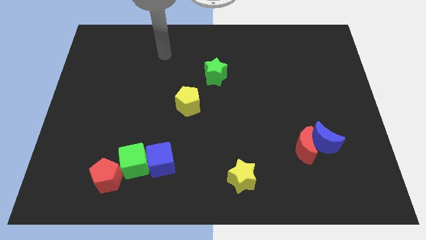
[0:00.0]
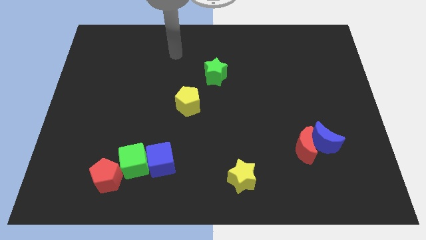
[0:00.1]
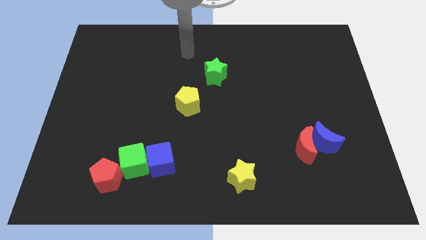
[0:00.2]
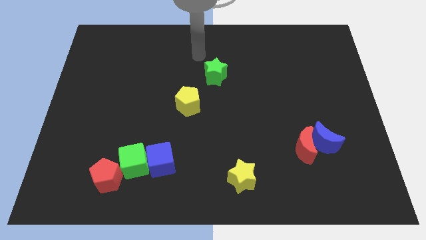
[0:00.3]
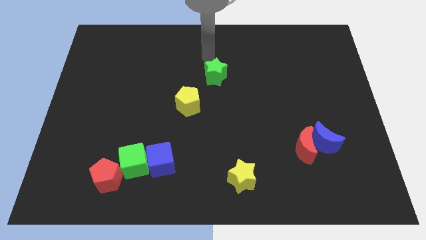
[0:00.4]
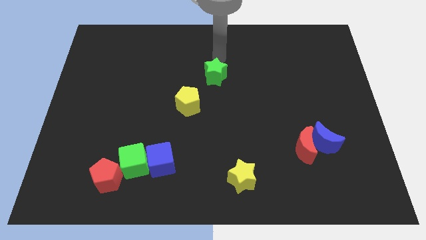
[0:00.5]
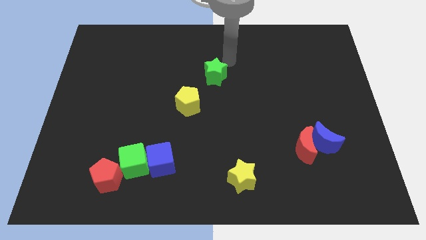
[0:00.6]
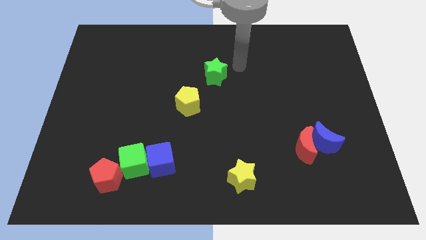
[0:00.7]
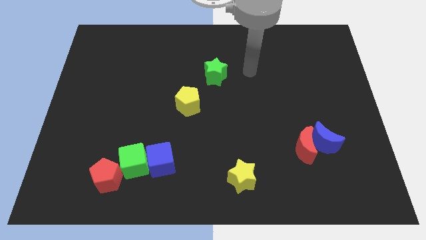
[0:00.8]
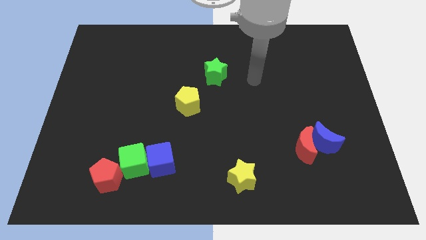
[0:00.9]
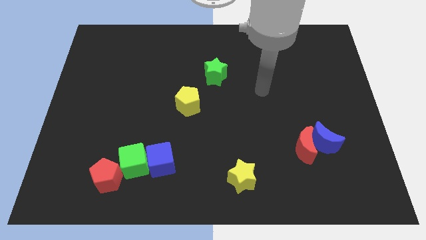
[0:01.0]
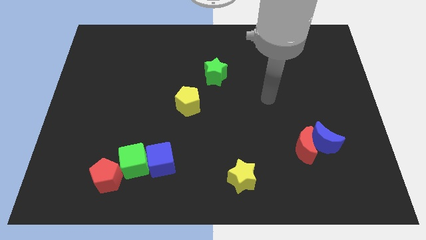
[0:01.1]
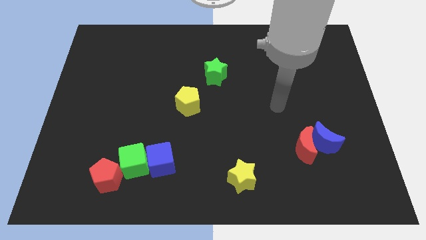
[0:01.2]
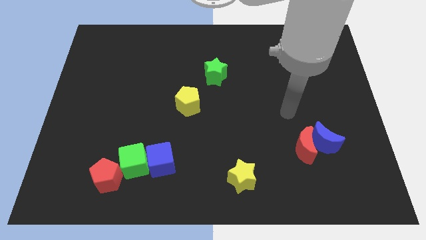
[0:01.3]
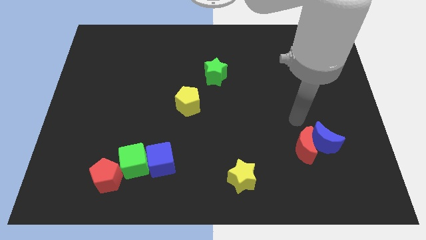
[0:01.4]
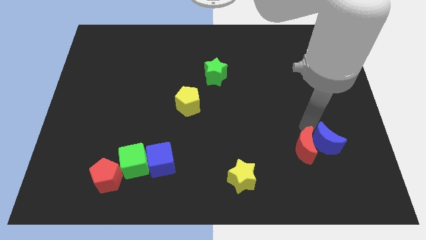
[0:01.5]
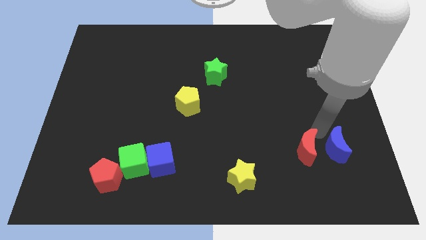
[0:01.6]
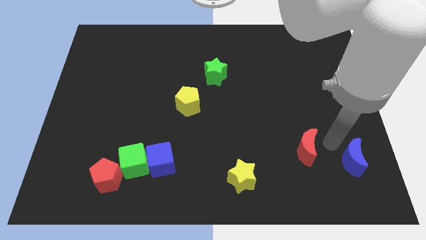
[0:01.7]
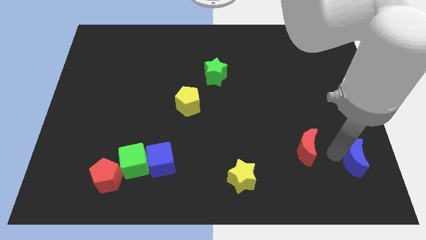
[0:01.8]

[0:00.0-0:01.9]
pull the red moon apart from the blue moon

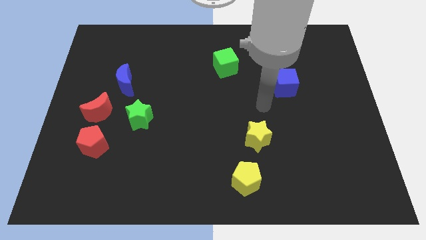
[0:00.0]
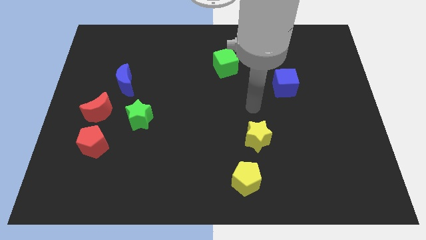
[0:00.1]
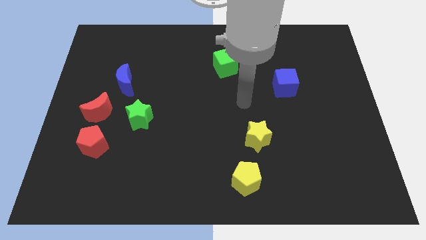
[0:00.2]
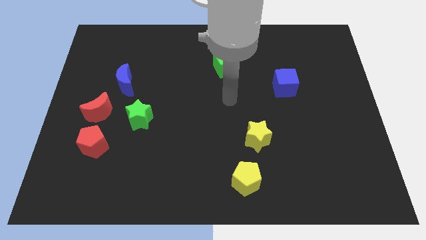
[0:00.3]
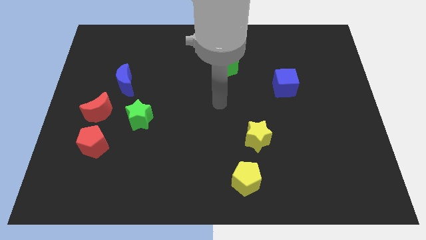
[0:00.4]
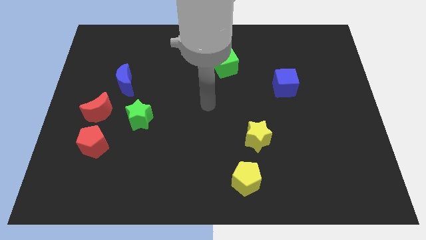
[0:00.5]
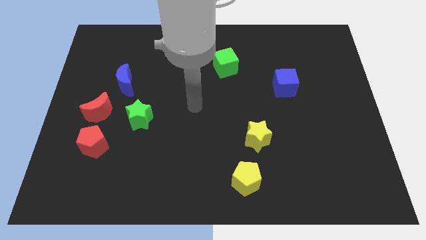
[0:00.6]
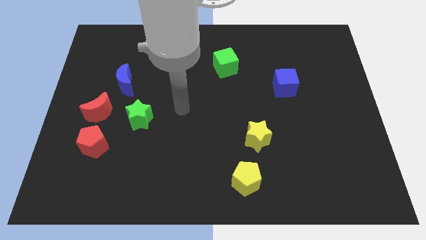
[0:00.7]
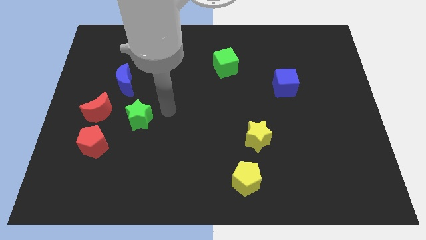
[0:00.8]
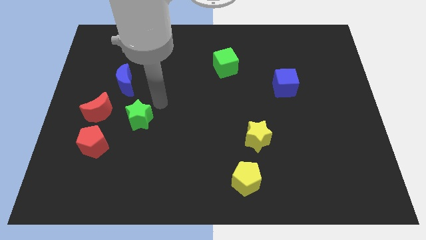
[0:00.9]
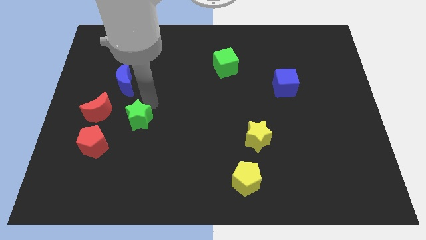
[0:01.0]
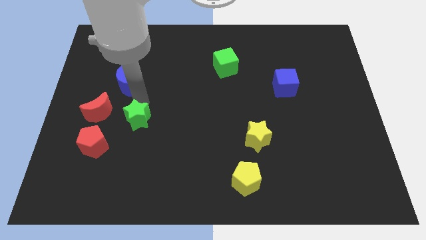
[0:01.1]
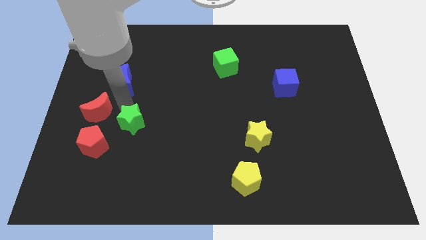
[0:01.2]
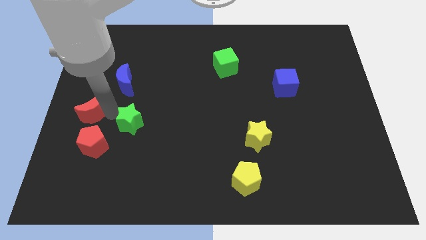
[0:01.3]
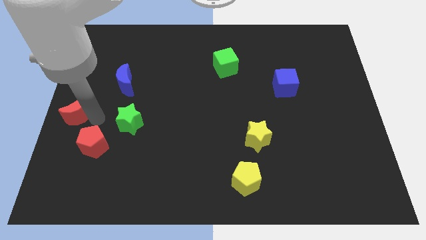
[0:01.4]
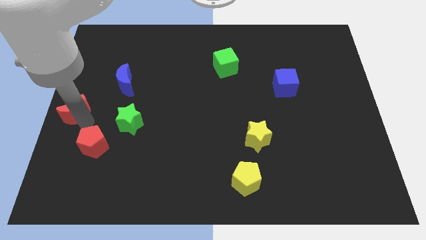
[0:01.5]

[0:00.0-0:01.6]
pull the red pentagon apart from the red moon

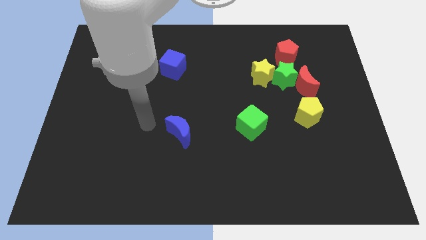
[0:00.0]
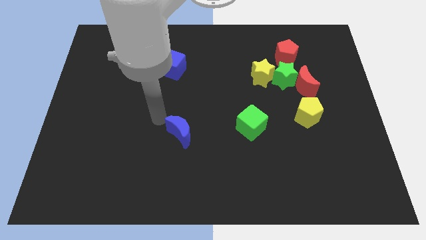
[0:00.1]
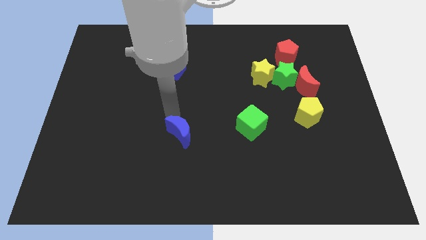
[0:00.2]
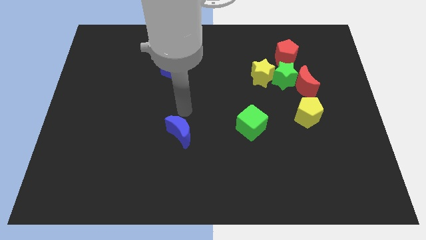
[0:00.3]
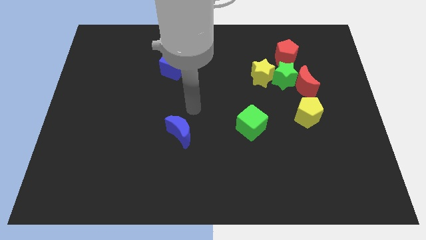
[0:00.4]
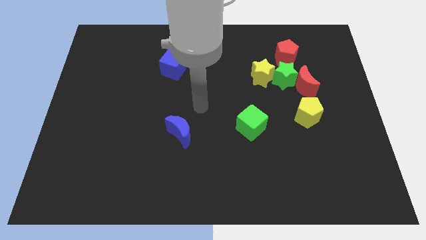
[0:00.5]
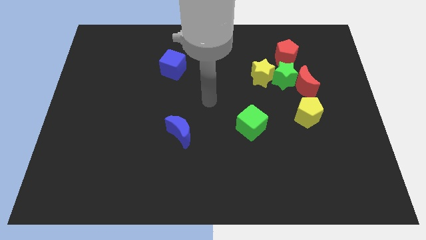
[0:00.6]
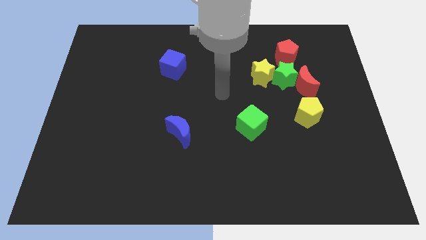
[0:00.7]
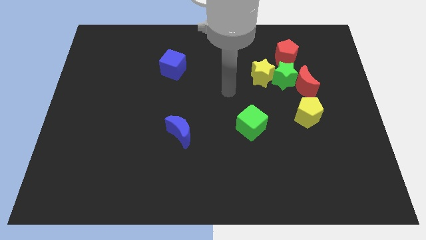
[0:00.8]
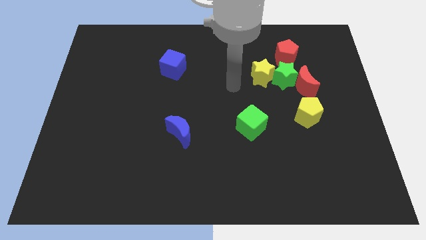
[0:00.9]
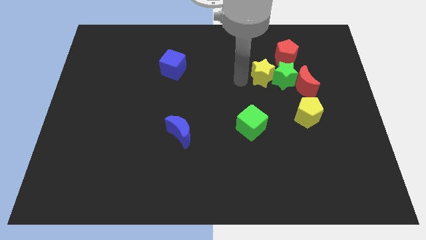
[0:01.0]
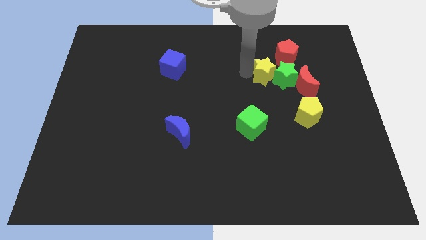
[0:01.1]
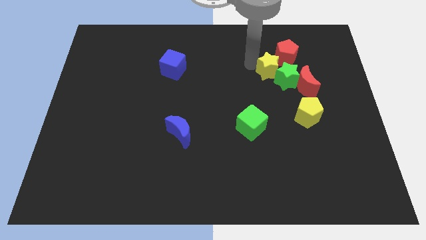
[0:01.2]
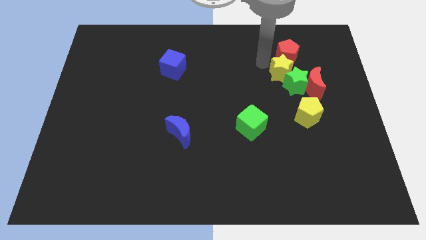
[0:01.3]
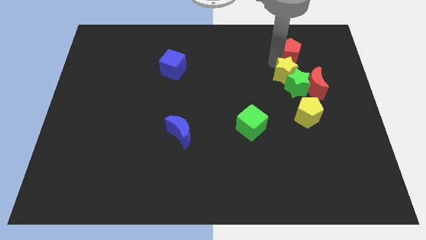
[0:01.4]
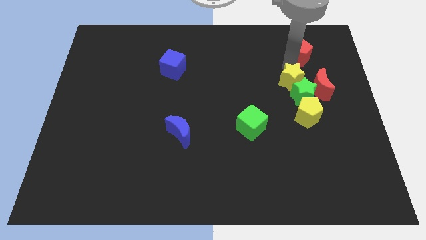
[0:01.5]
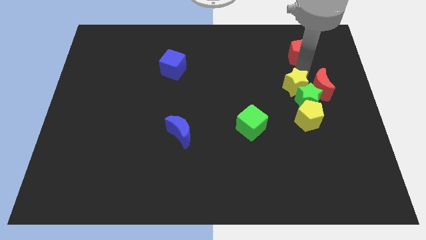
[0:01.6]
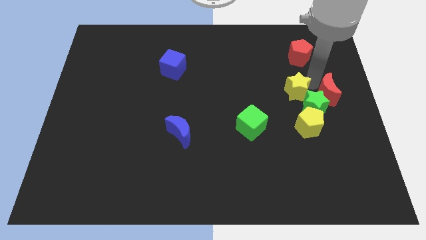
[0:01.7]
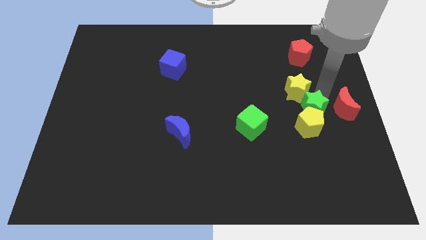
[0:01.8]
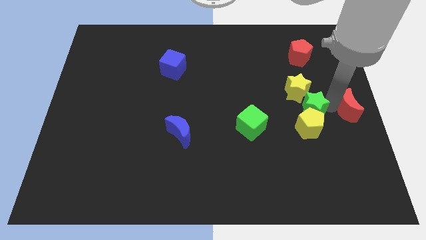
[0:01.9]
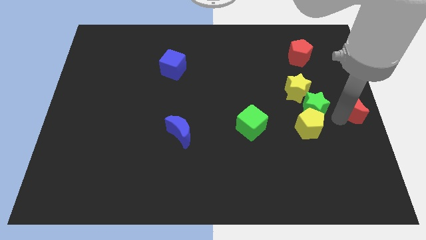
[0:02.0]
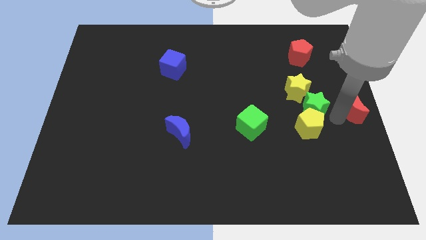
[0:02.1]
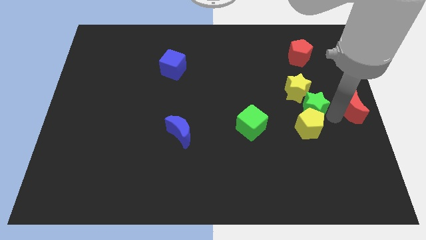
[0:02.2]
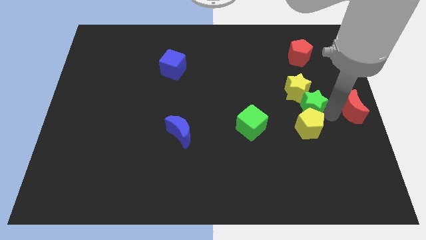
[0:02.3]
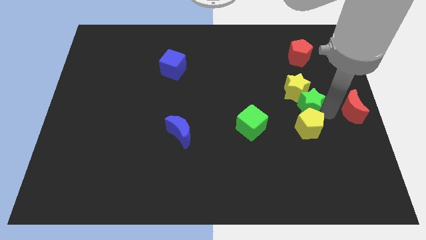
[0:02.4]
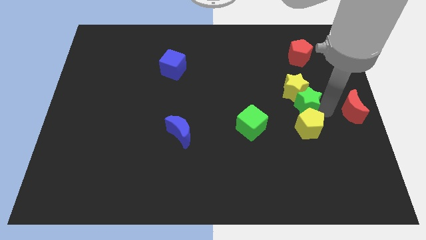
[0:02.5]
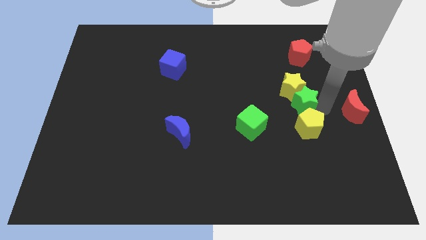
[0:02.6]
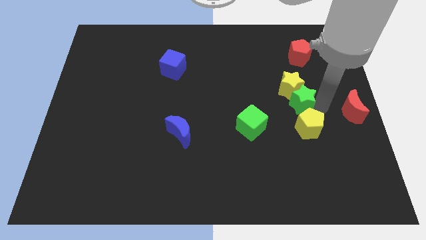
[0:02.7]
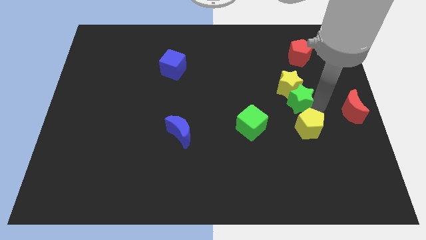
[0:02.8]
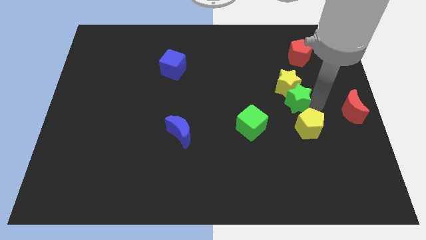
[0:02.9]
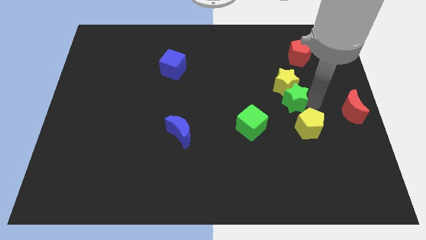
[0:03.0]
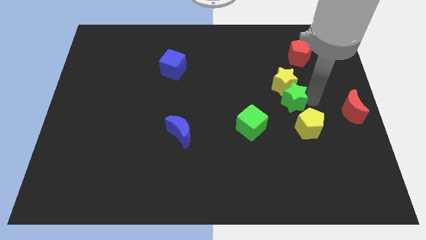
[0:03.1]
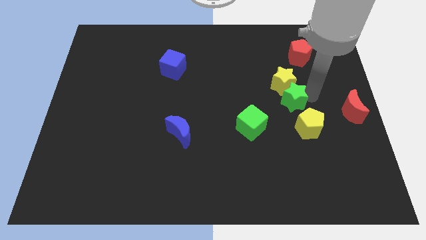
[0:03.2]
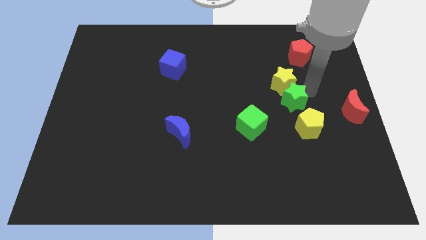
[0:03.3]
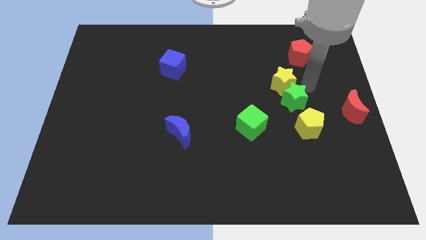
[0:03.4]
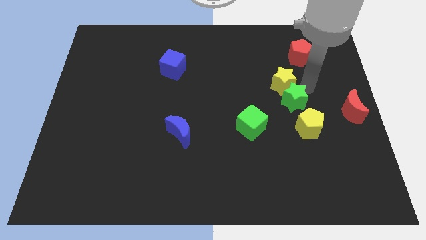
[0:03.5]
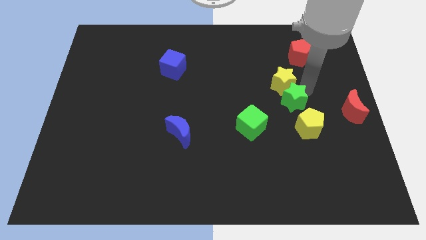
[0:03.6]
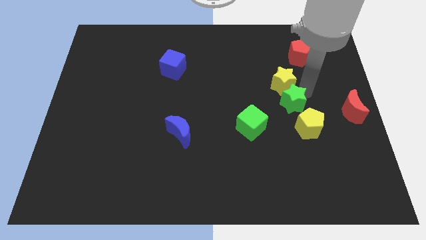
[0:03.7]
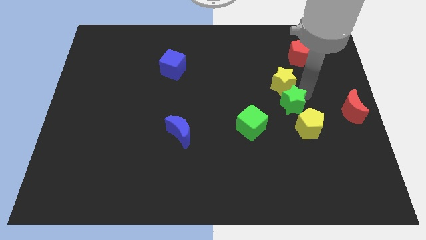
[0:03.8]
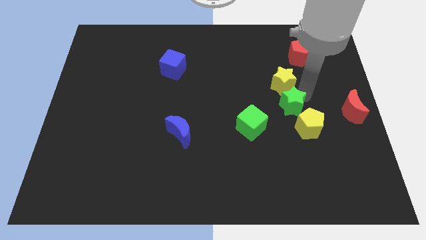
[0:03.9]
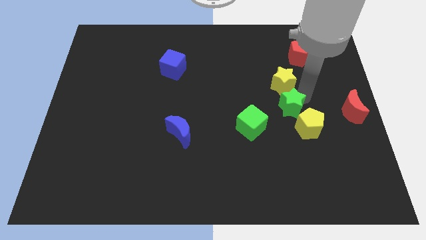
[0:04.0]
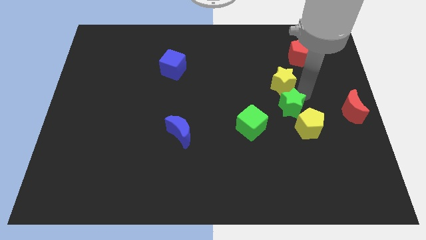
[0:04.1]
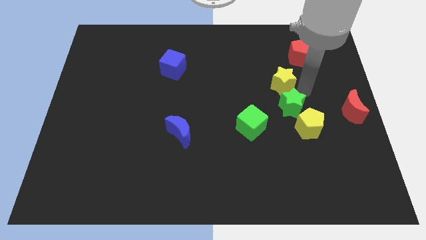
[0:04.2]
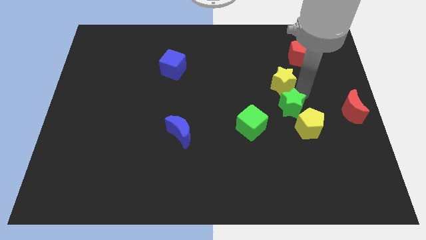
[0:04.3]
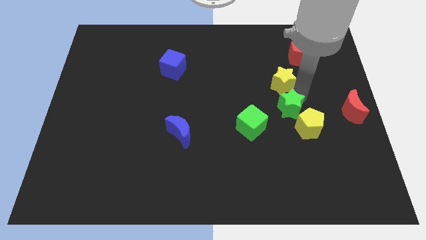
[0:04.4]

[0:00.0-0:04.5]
move the green star away from the red moon, yellow star, and red pentagon

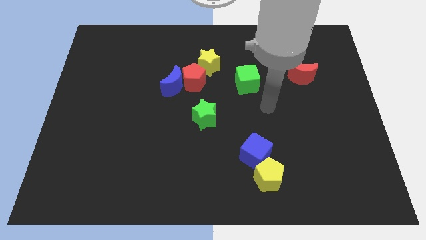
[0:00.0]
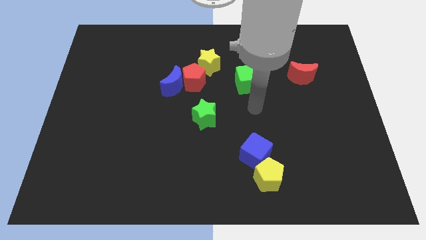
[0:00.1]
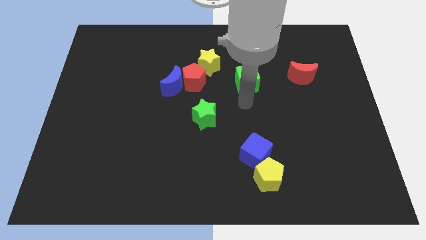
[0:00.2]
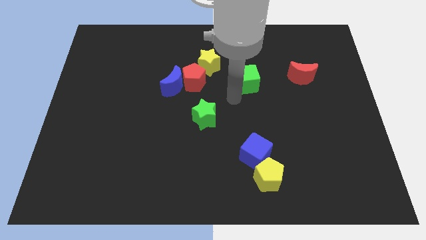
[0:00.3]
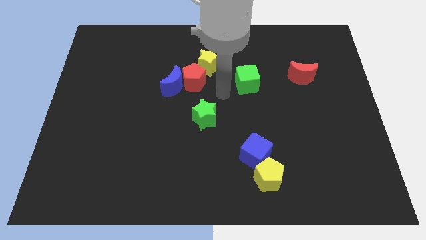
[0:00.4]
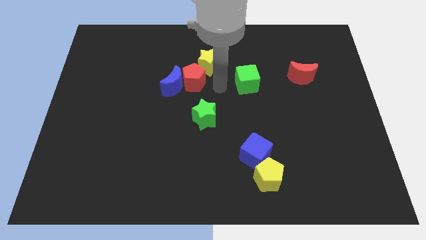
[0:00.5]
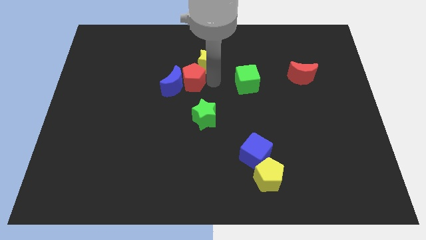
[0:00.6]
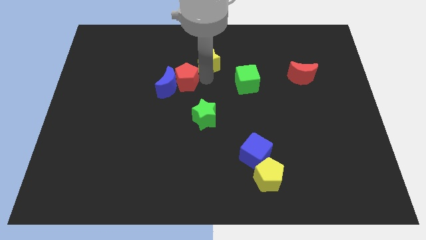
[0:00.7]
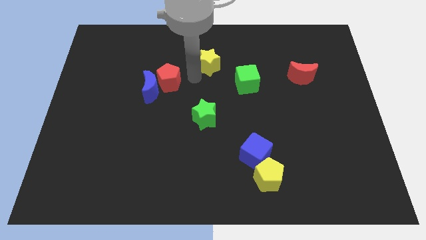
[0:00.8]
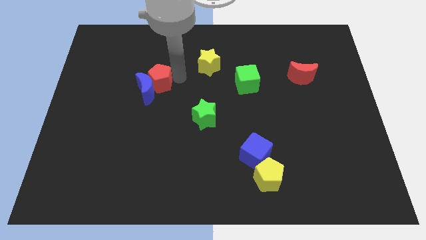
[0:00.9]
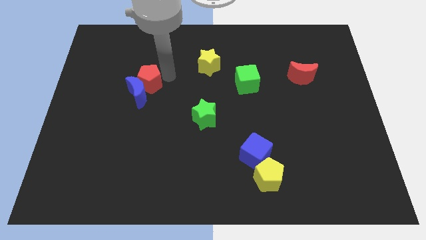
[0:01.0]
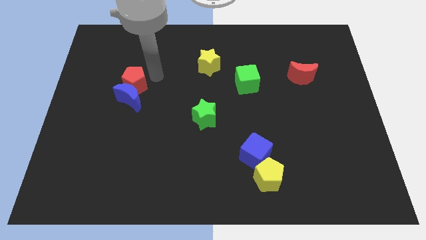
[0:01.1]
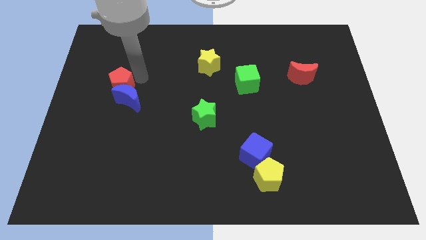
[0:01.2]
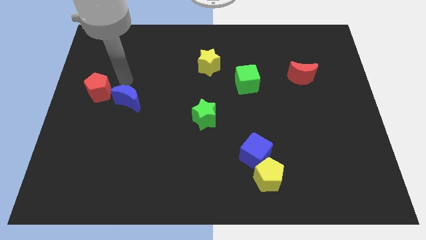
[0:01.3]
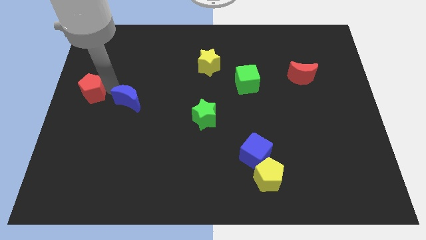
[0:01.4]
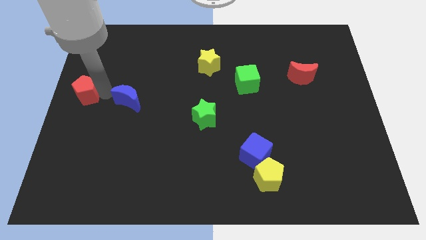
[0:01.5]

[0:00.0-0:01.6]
pull the blue moon apart from the red pentagon
